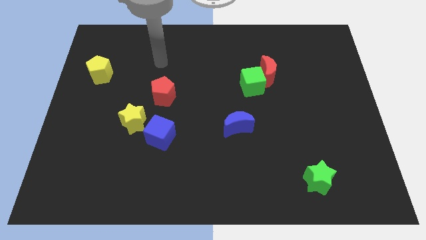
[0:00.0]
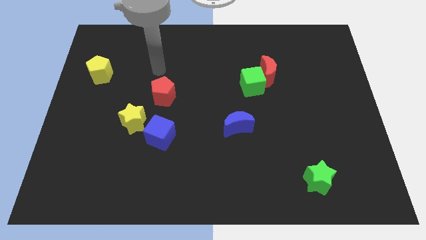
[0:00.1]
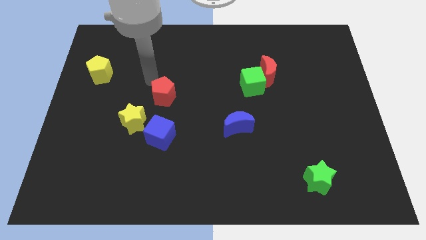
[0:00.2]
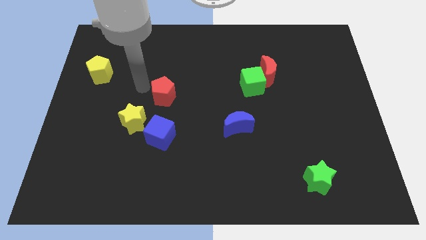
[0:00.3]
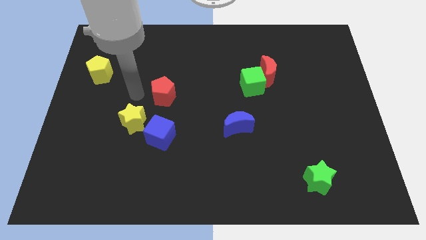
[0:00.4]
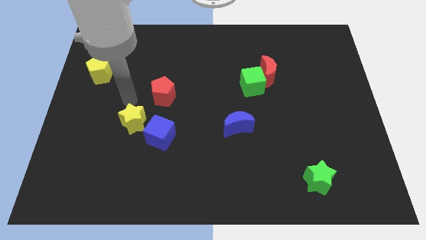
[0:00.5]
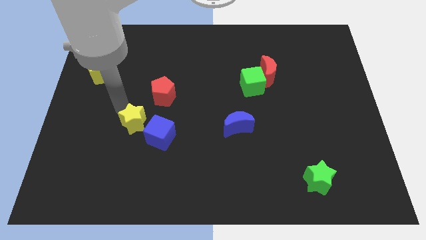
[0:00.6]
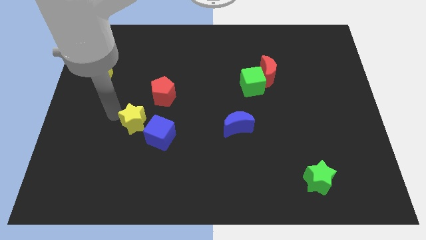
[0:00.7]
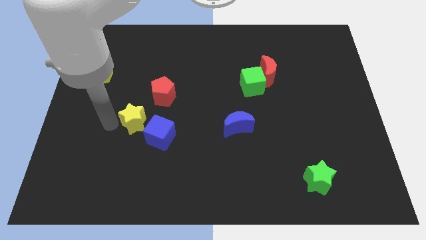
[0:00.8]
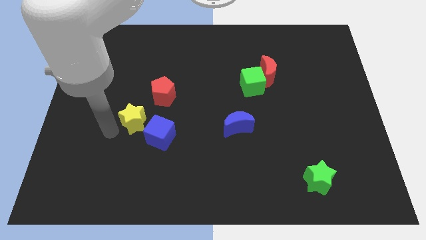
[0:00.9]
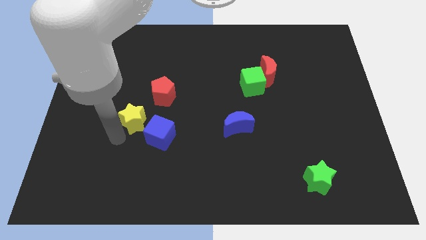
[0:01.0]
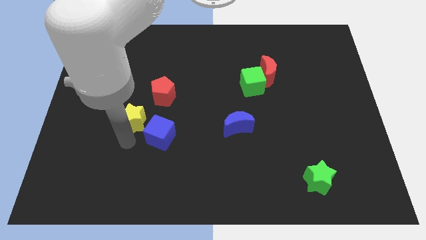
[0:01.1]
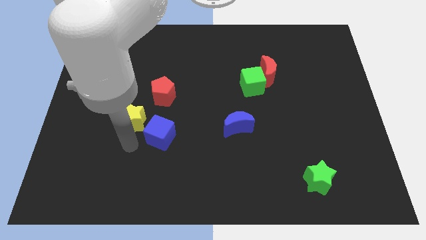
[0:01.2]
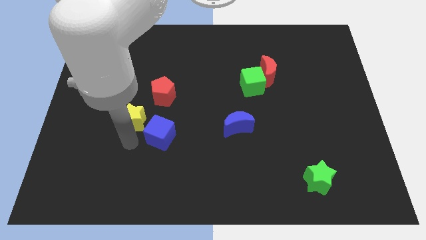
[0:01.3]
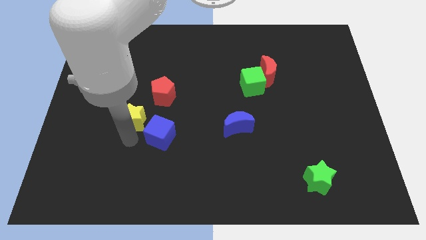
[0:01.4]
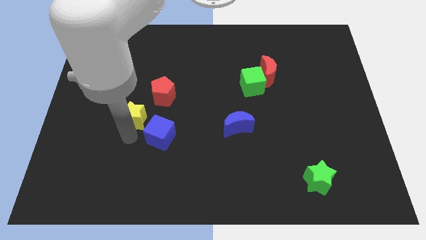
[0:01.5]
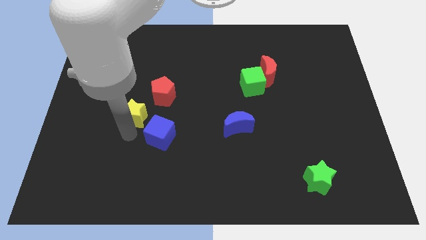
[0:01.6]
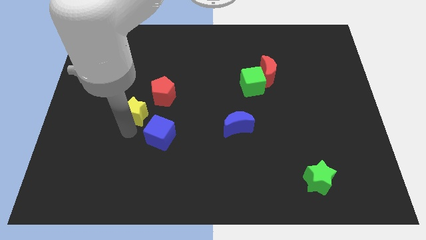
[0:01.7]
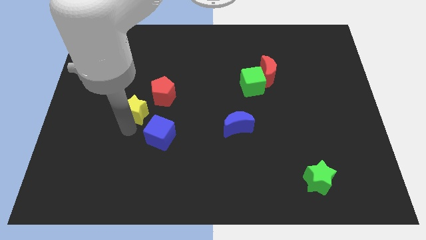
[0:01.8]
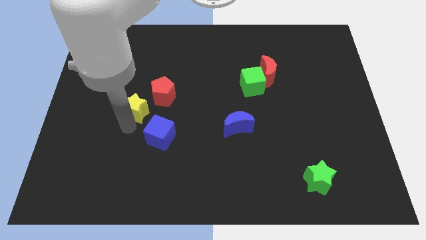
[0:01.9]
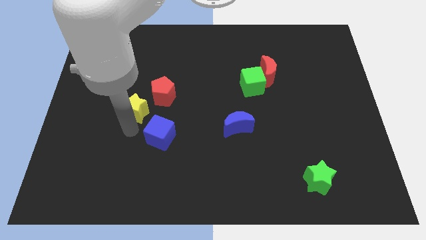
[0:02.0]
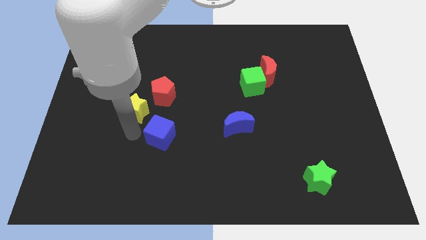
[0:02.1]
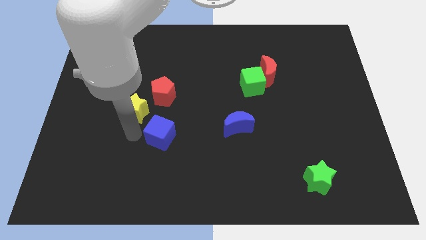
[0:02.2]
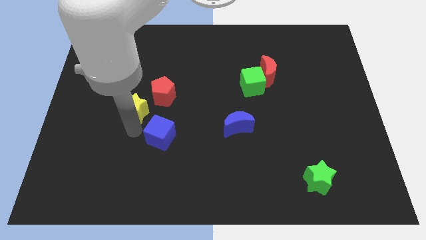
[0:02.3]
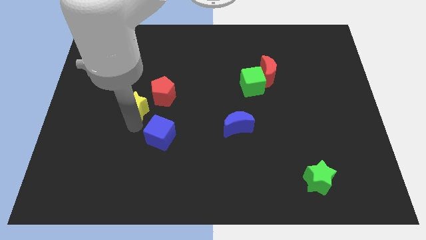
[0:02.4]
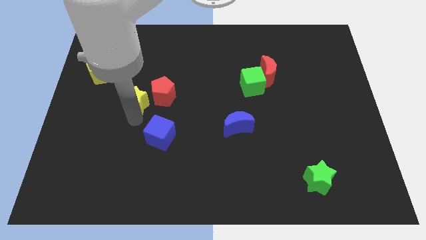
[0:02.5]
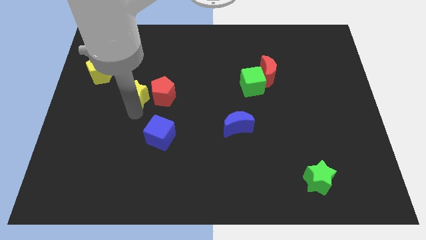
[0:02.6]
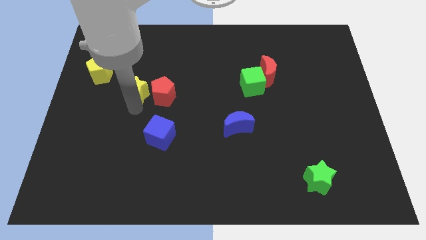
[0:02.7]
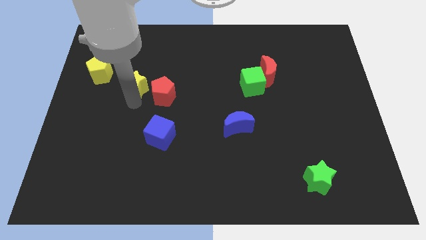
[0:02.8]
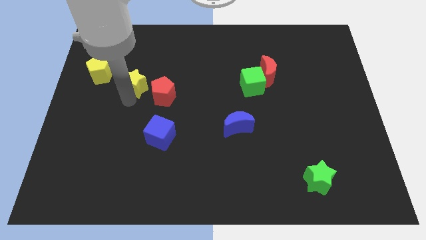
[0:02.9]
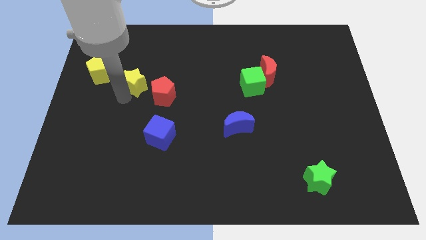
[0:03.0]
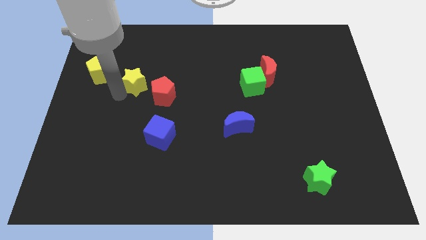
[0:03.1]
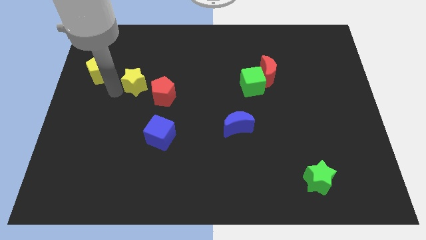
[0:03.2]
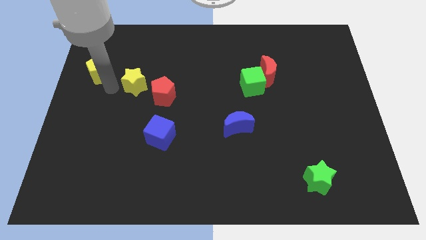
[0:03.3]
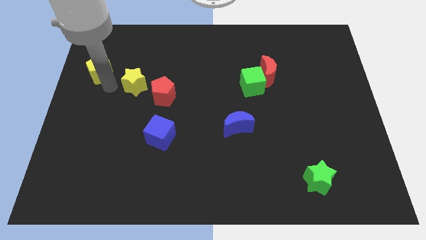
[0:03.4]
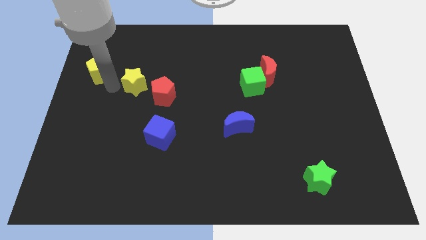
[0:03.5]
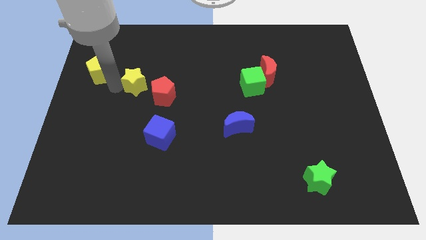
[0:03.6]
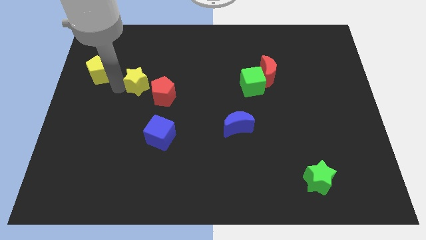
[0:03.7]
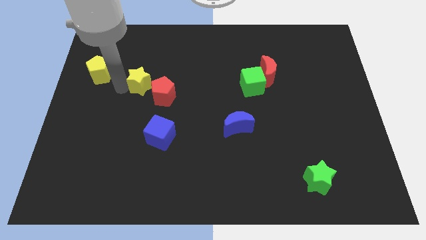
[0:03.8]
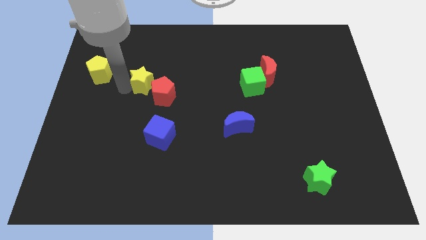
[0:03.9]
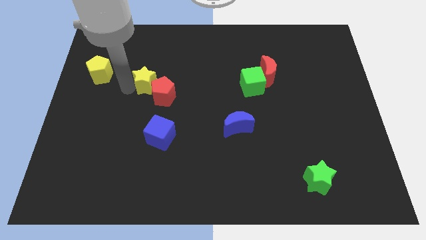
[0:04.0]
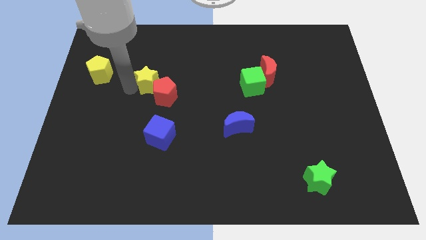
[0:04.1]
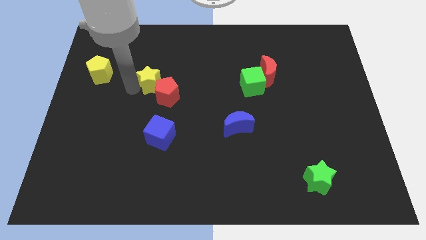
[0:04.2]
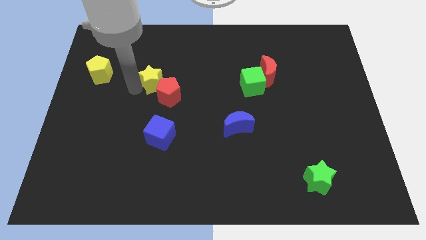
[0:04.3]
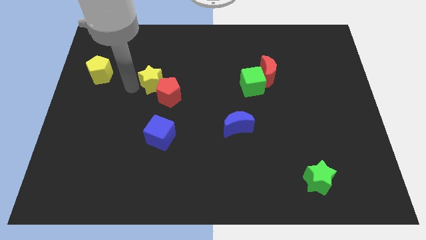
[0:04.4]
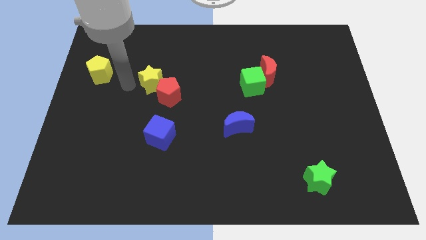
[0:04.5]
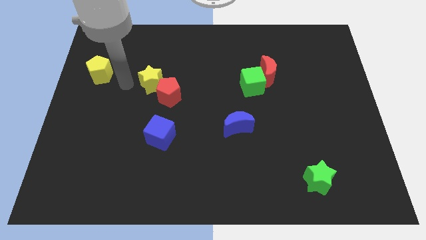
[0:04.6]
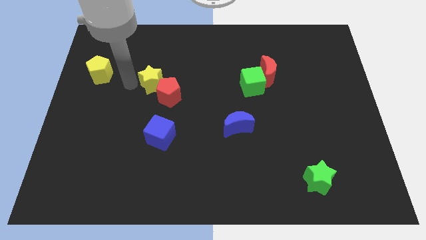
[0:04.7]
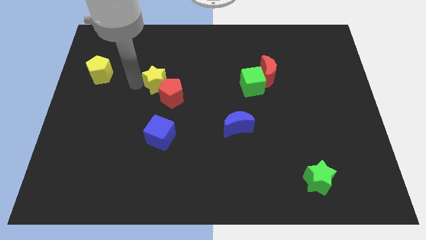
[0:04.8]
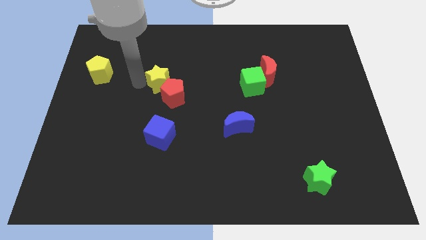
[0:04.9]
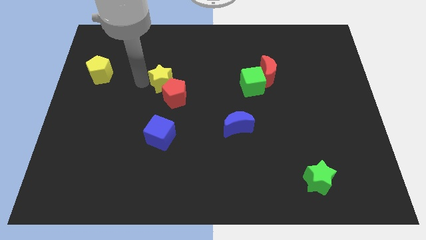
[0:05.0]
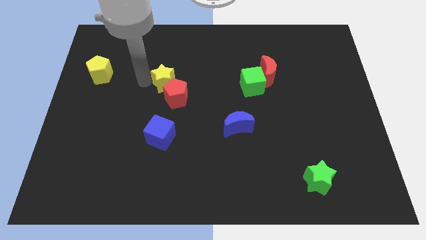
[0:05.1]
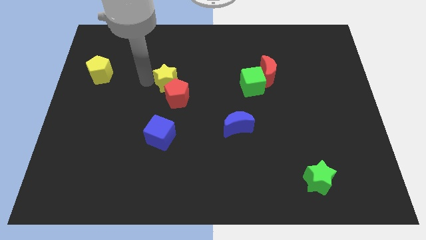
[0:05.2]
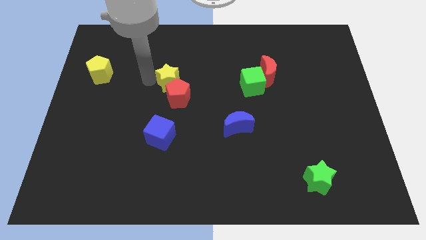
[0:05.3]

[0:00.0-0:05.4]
put the yellow star to the center
